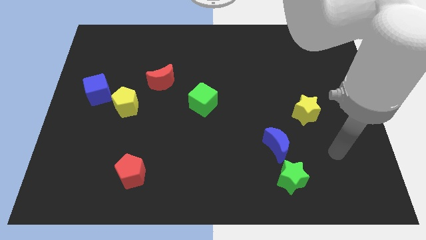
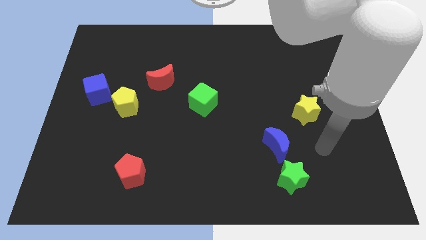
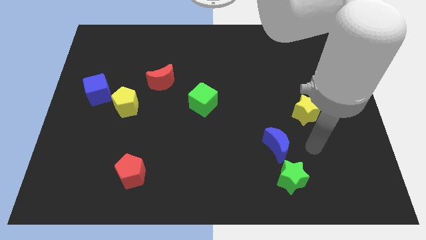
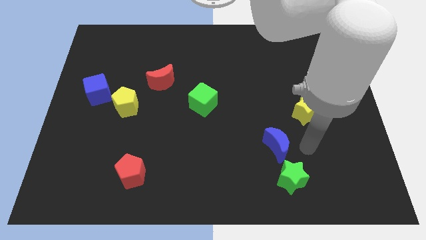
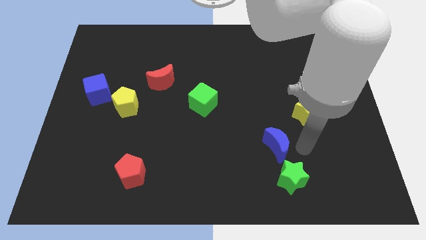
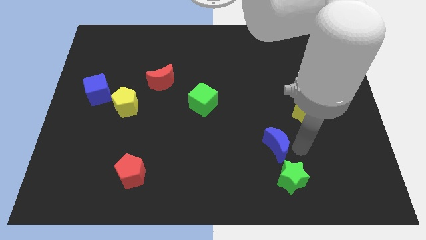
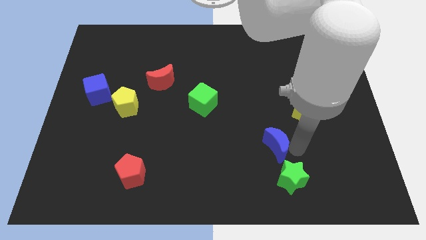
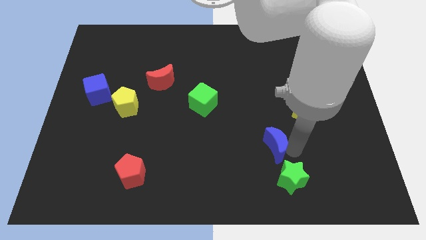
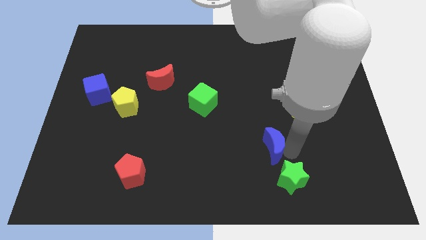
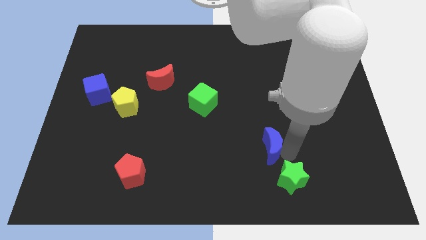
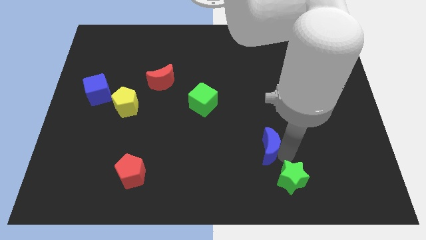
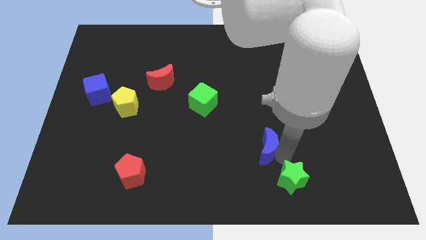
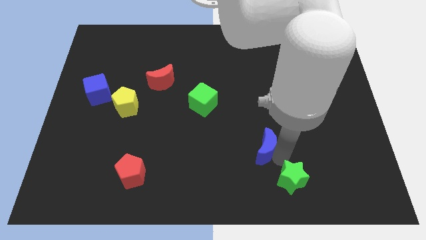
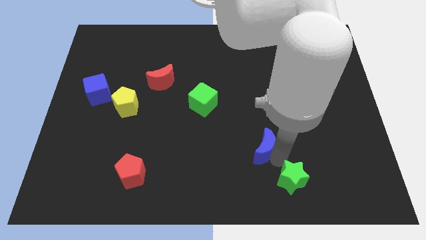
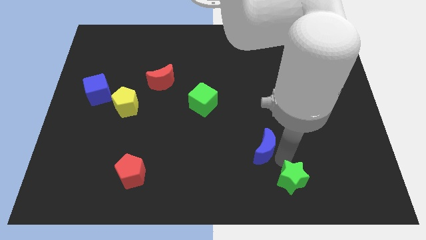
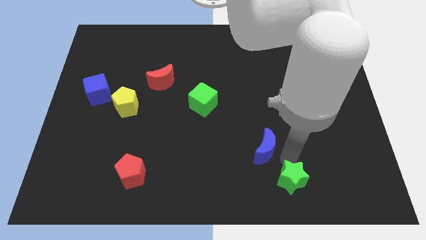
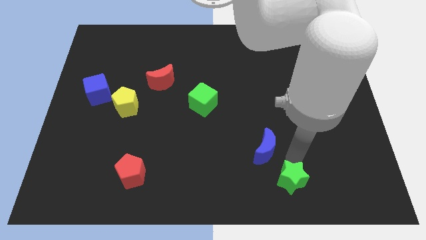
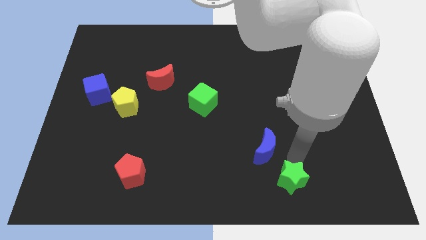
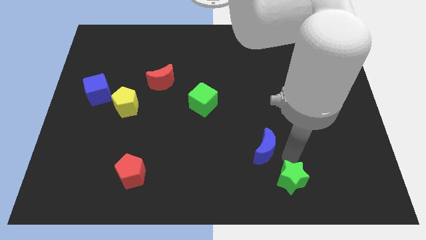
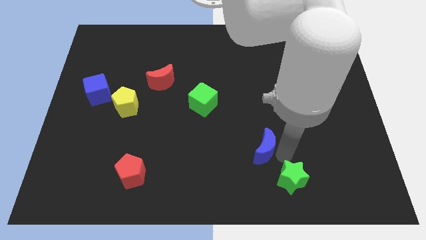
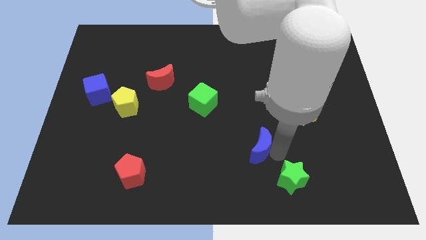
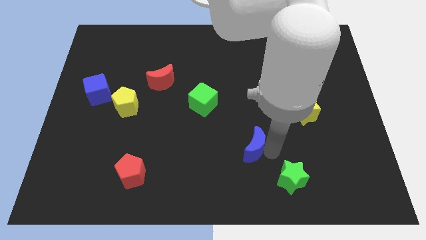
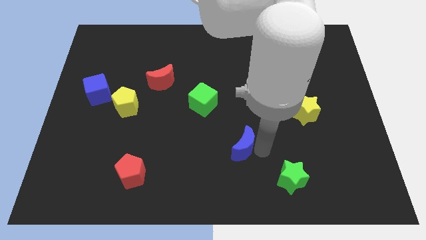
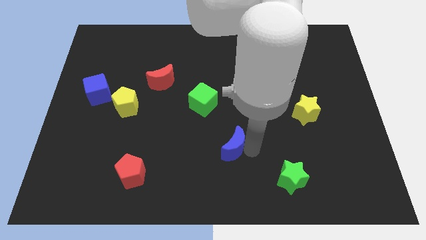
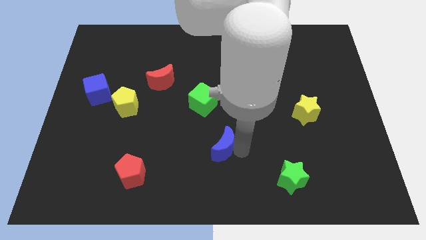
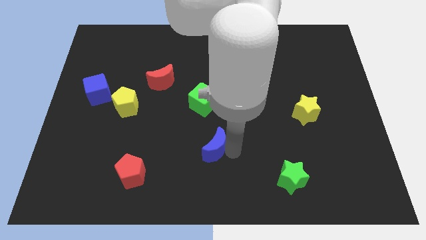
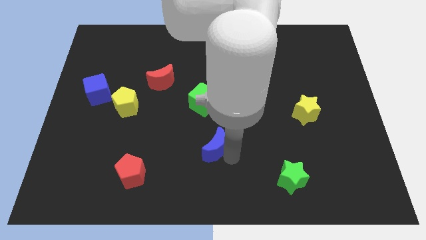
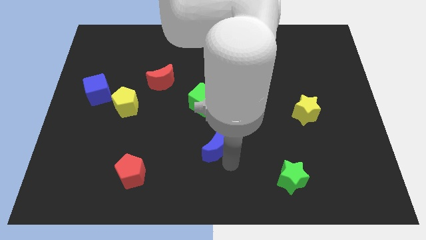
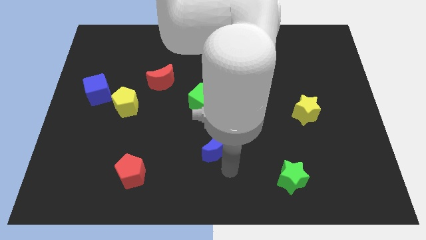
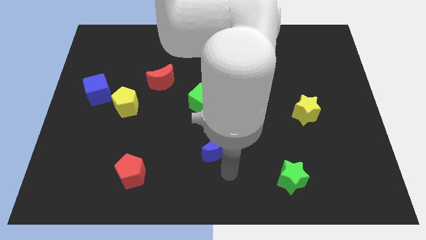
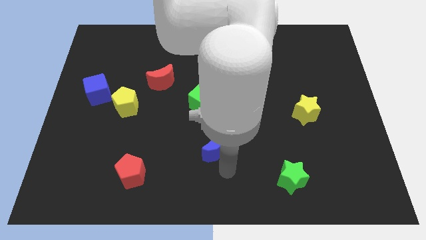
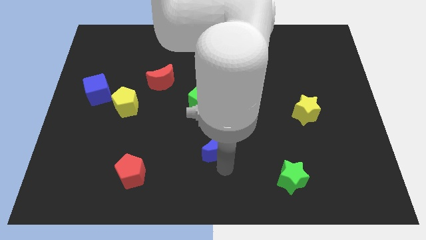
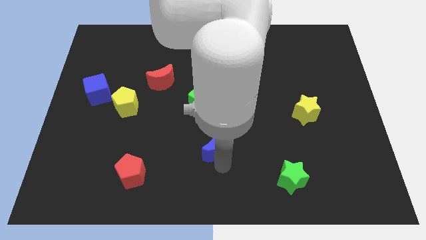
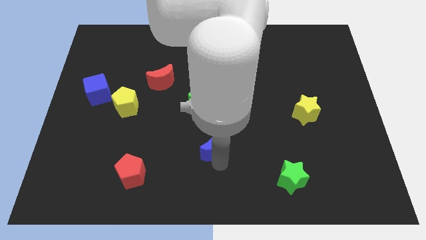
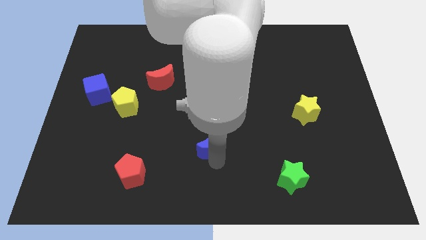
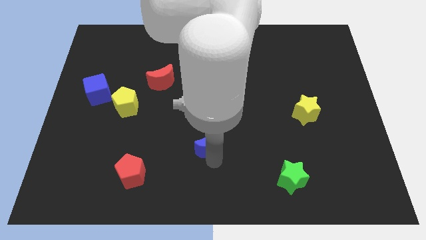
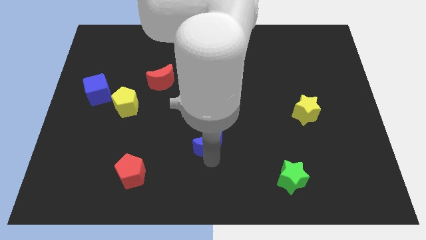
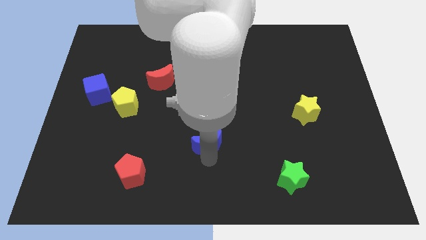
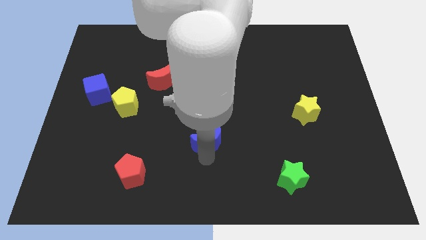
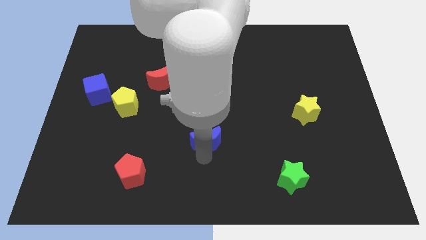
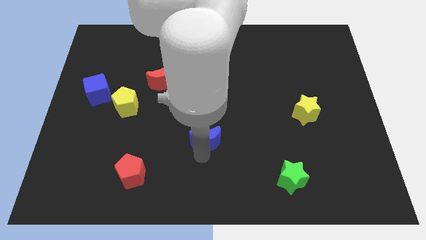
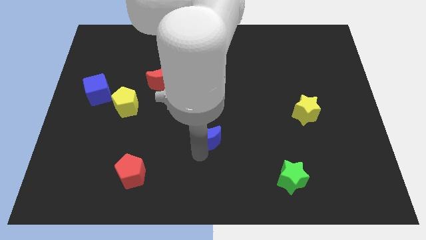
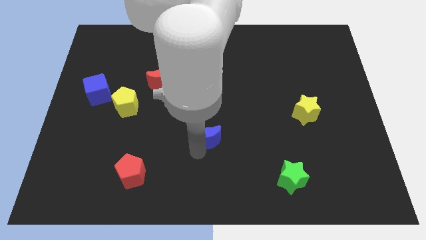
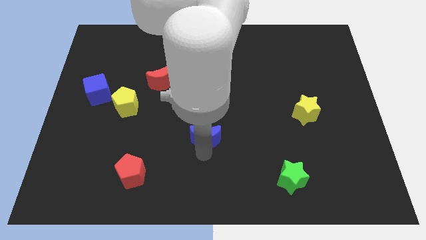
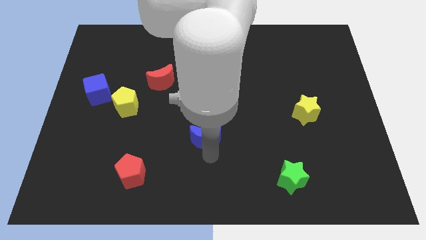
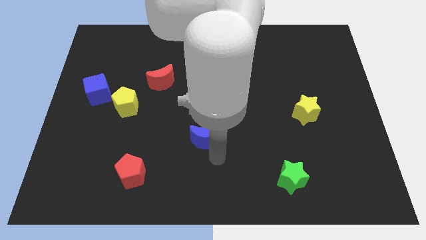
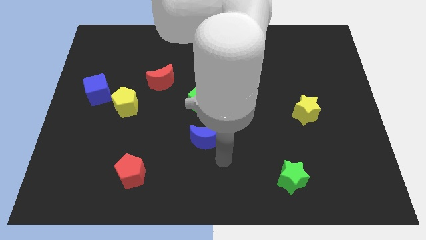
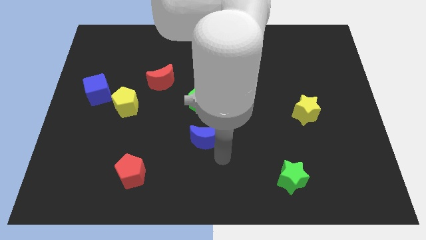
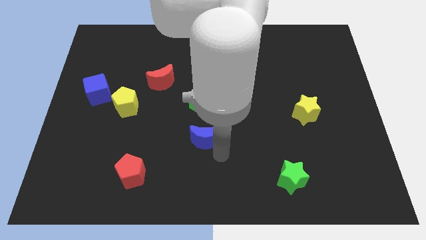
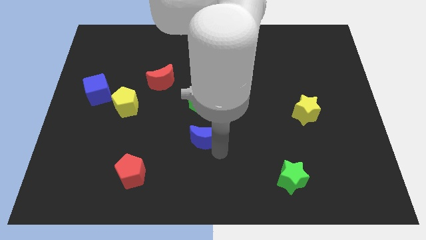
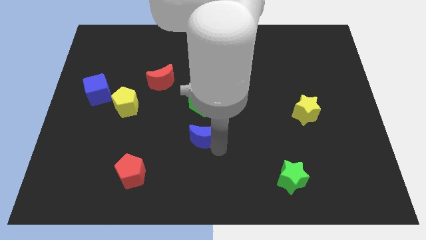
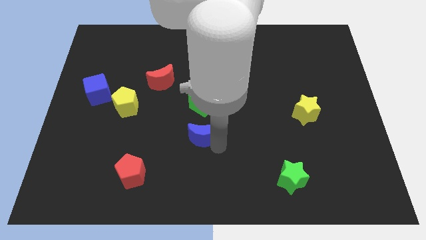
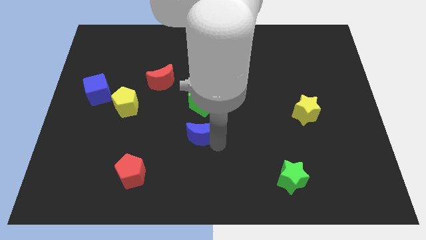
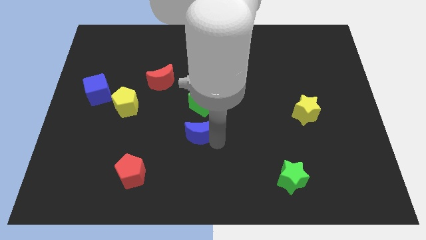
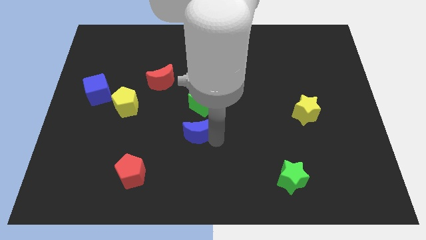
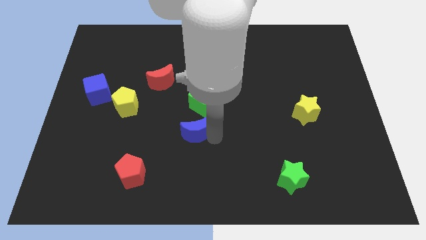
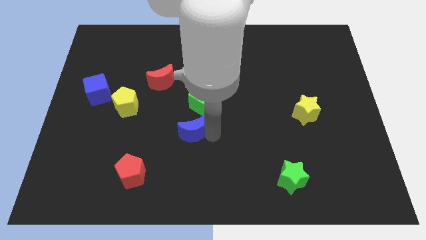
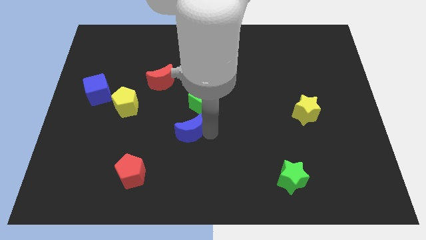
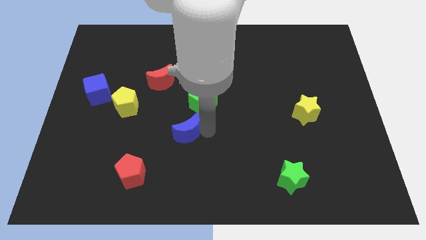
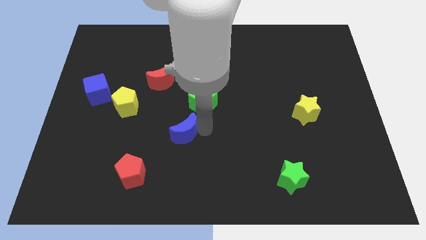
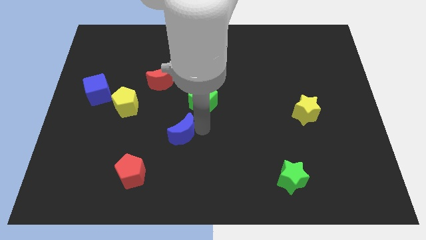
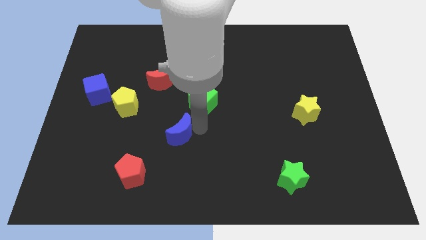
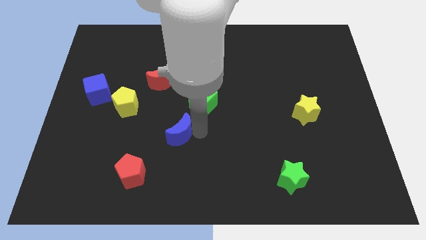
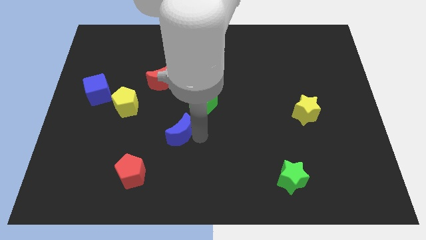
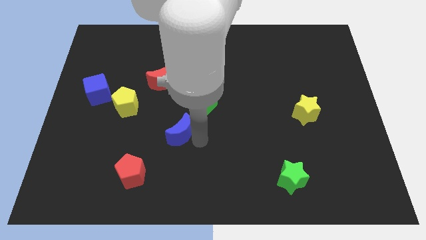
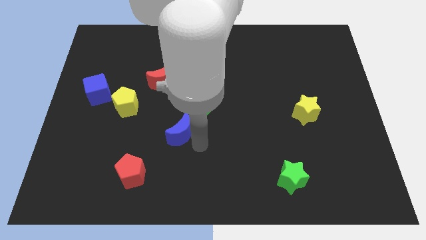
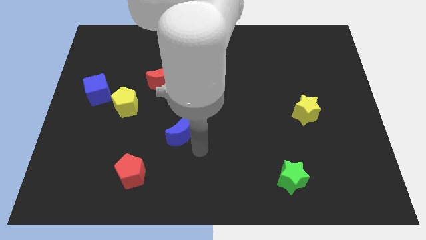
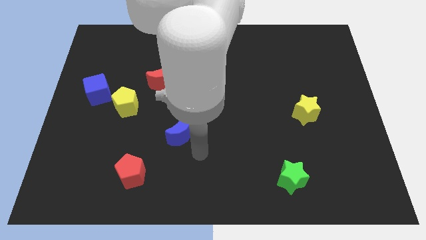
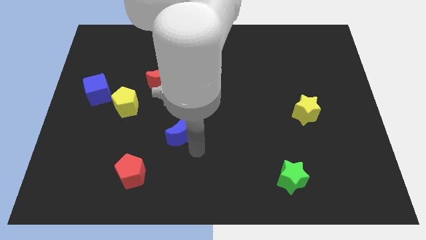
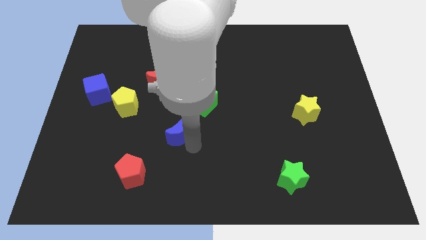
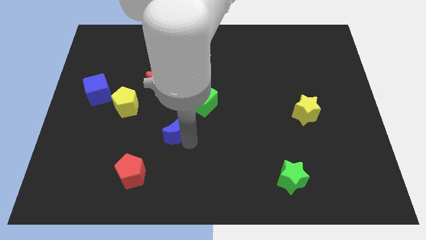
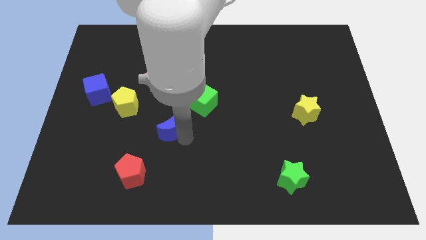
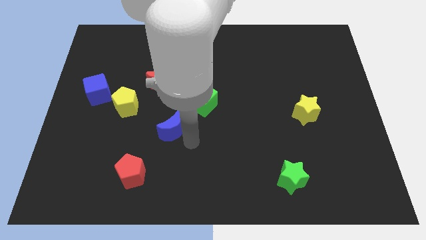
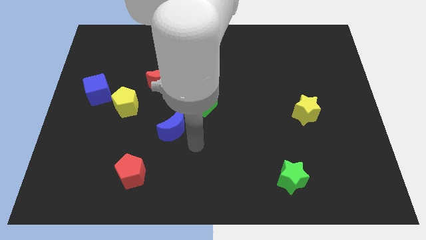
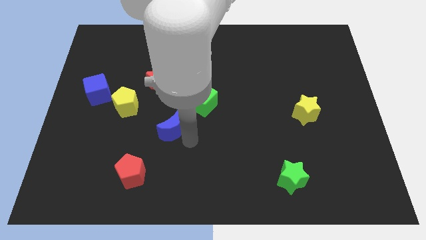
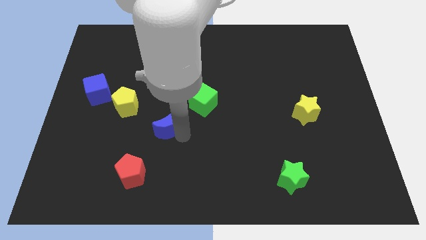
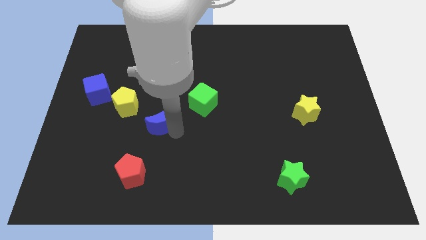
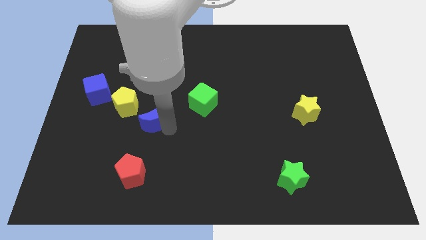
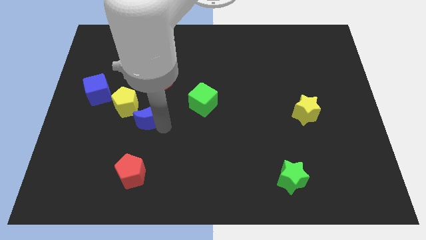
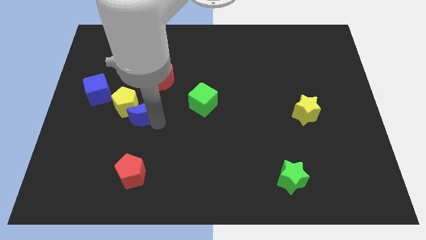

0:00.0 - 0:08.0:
slide the blue moon close to the yellow pentagon
